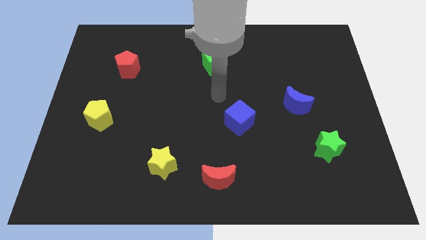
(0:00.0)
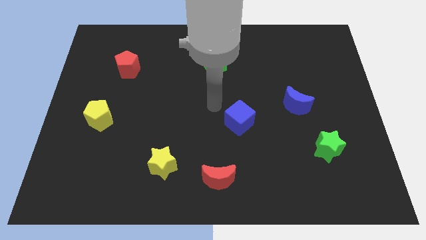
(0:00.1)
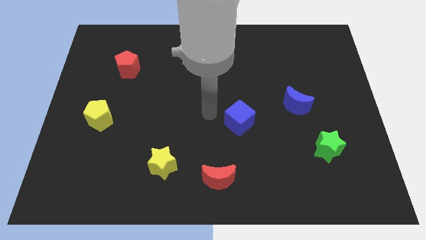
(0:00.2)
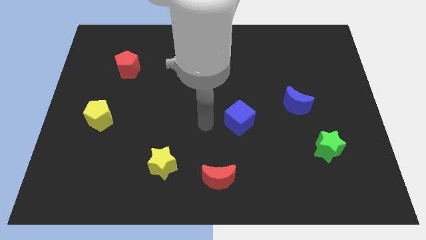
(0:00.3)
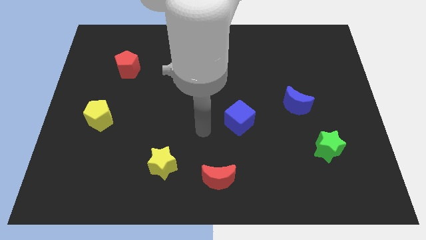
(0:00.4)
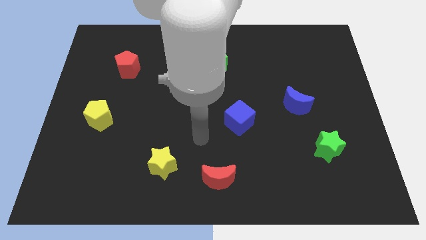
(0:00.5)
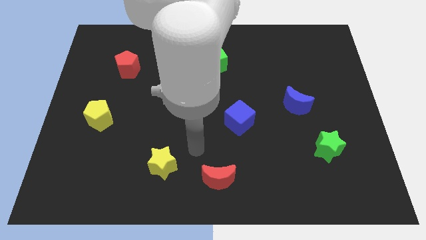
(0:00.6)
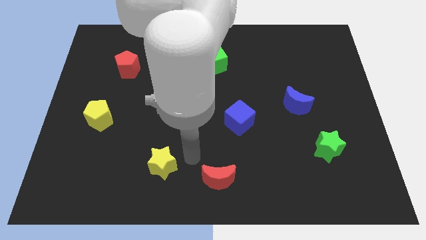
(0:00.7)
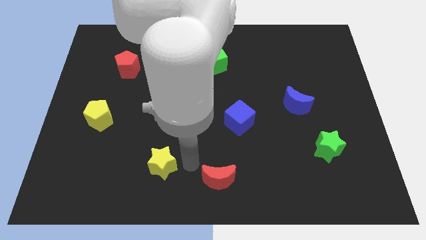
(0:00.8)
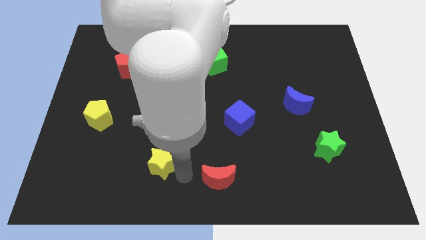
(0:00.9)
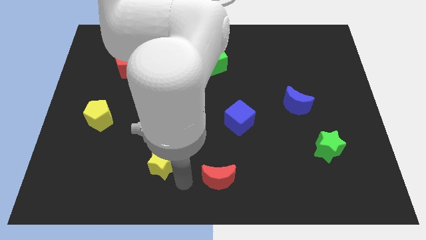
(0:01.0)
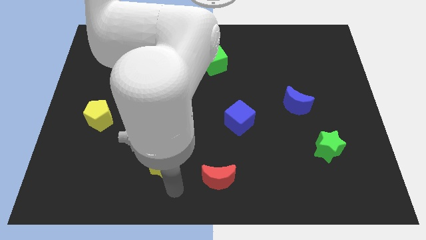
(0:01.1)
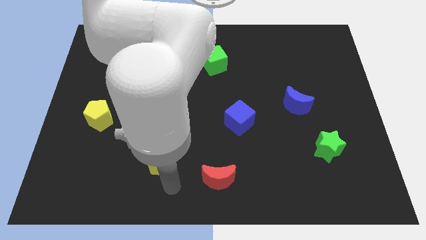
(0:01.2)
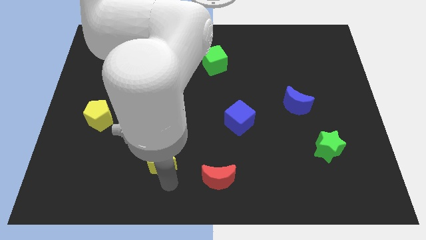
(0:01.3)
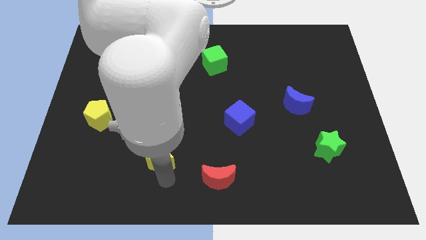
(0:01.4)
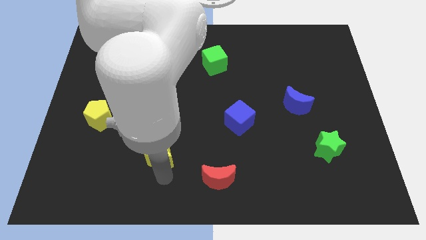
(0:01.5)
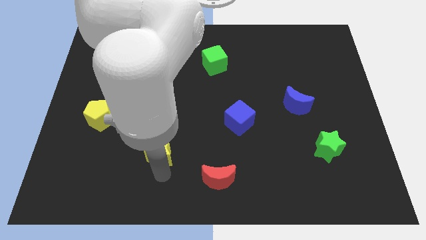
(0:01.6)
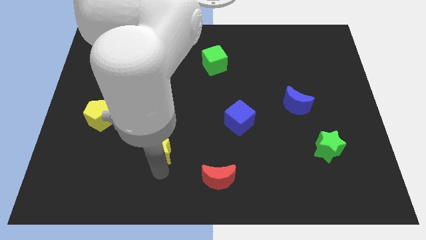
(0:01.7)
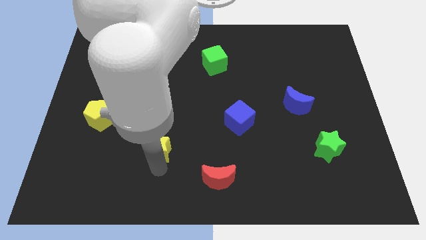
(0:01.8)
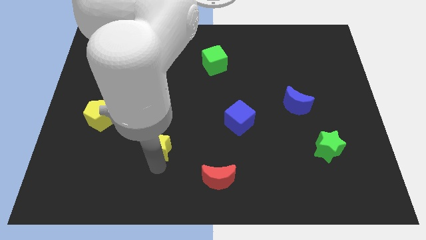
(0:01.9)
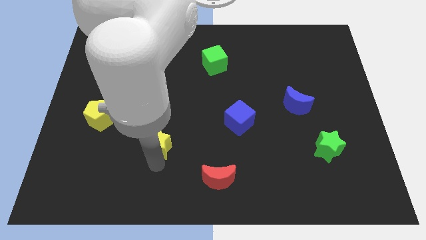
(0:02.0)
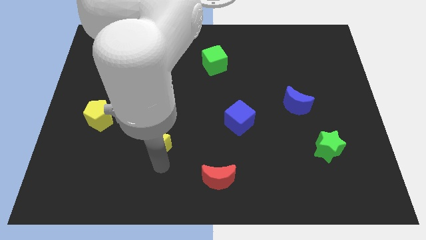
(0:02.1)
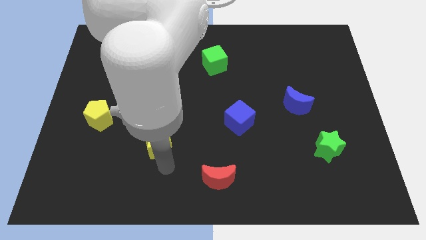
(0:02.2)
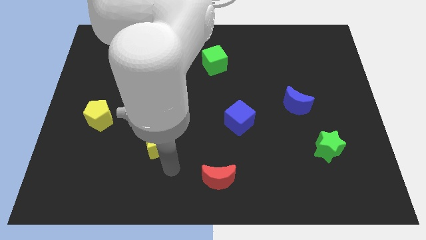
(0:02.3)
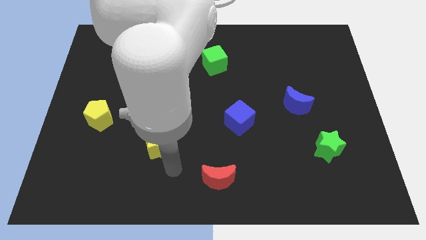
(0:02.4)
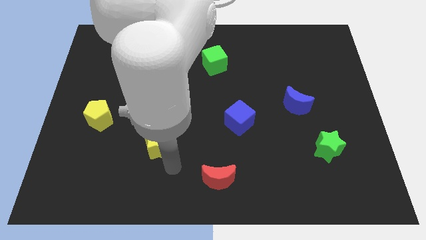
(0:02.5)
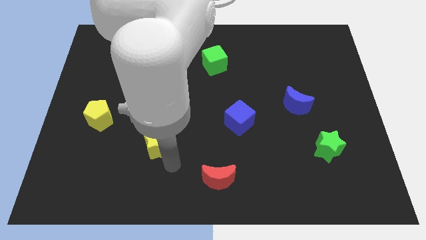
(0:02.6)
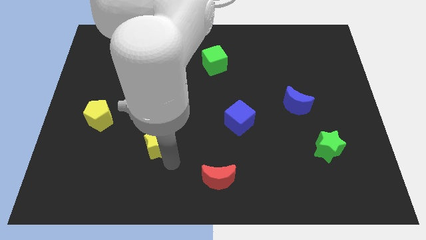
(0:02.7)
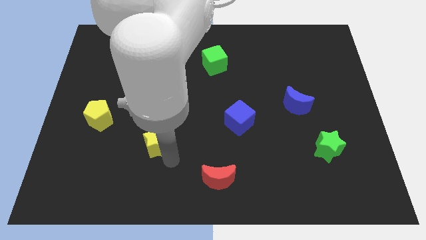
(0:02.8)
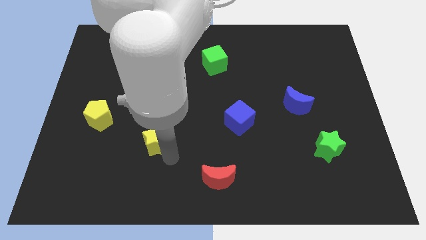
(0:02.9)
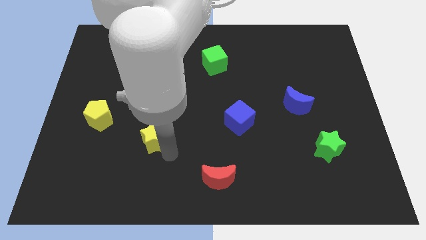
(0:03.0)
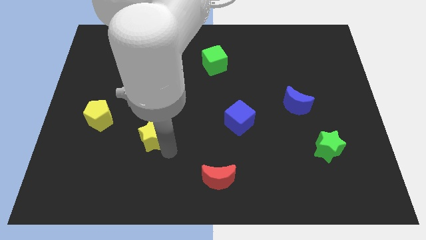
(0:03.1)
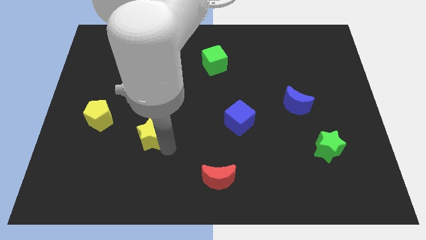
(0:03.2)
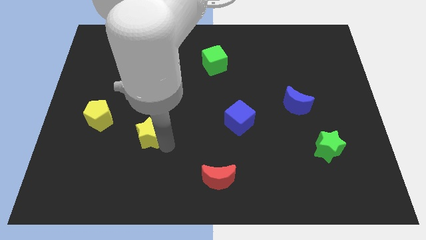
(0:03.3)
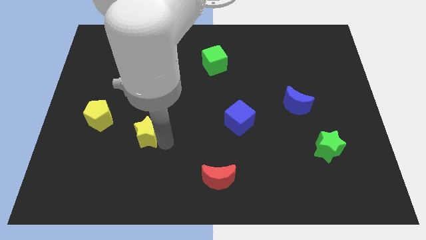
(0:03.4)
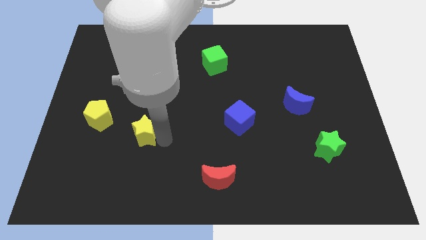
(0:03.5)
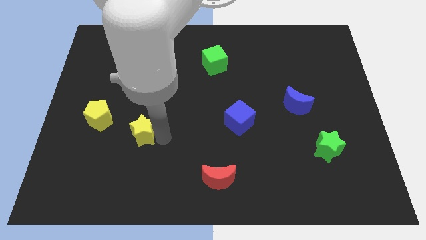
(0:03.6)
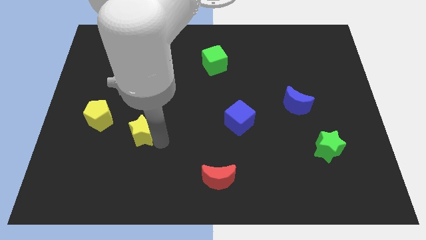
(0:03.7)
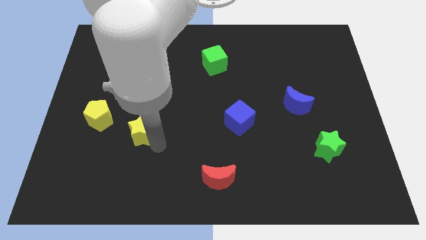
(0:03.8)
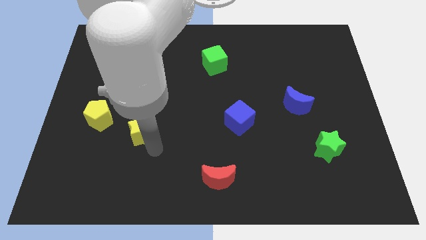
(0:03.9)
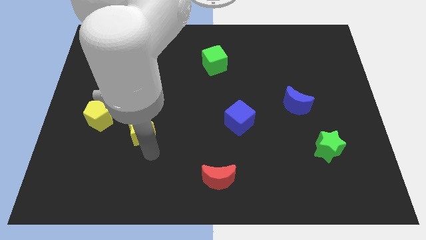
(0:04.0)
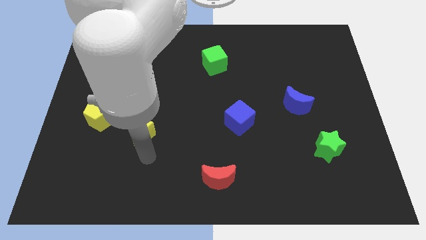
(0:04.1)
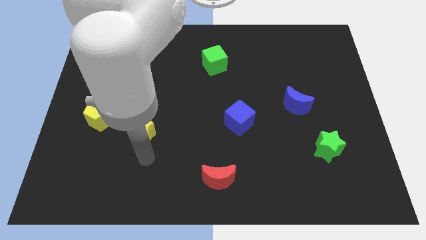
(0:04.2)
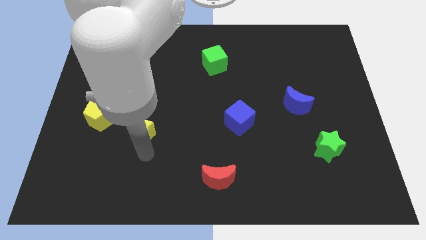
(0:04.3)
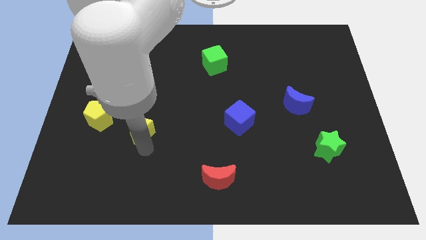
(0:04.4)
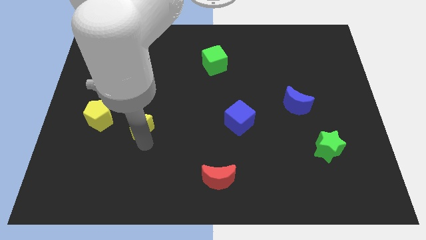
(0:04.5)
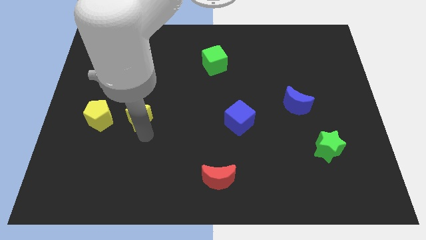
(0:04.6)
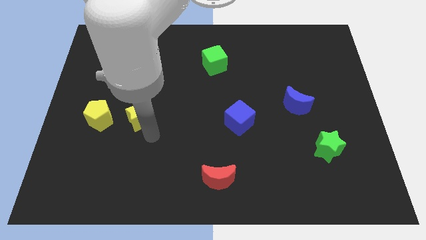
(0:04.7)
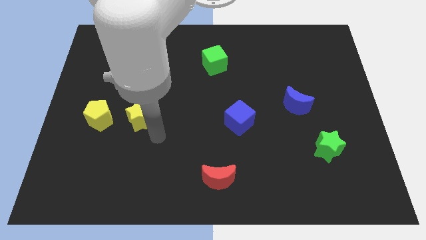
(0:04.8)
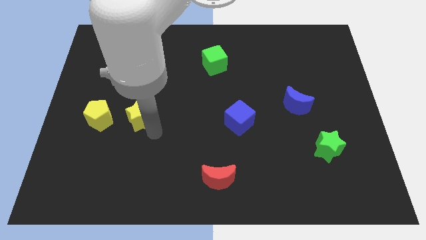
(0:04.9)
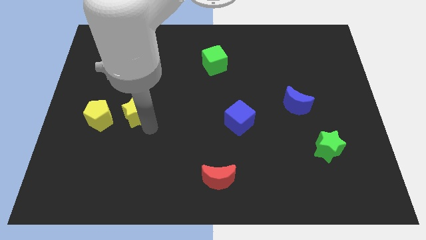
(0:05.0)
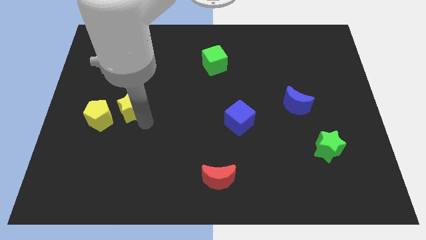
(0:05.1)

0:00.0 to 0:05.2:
push the yellow star to the top right side of the yellow pentagon

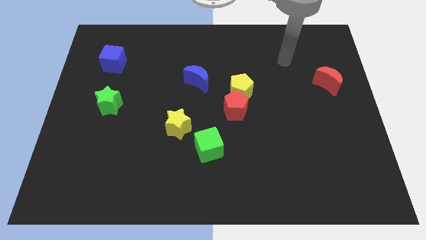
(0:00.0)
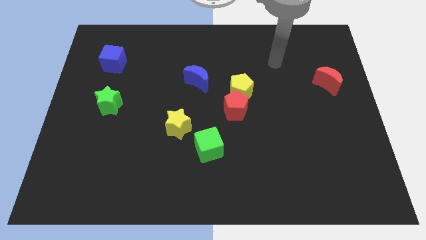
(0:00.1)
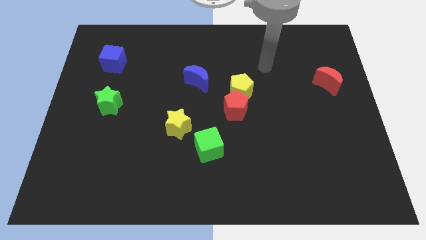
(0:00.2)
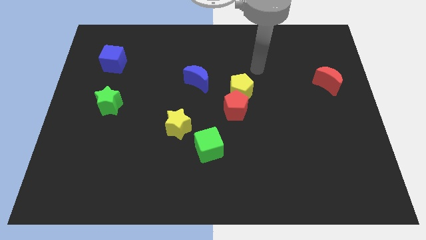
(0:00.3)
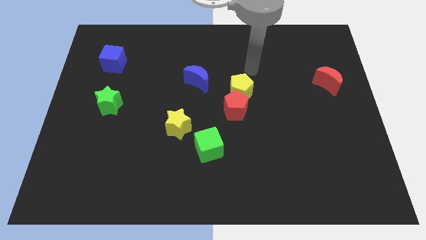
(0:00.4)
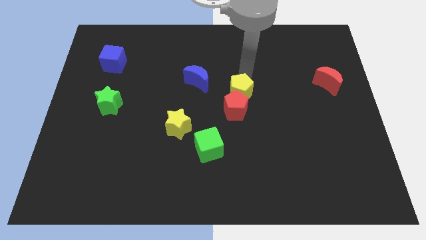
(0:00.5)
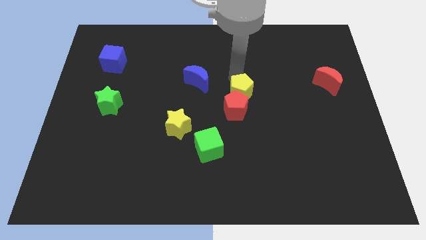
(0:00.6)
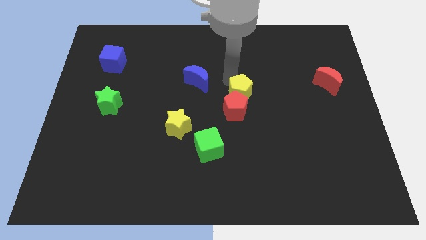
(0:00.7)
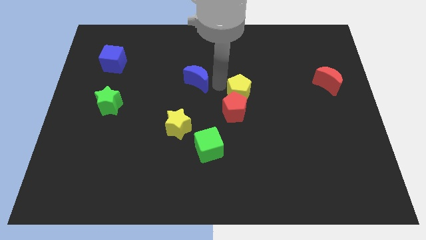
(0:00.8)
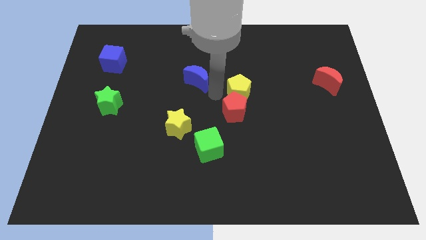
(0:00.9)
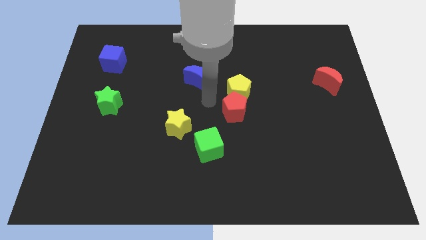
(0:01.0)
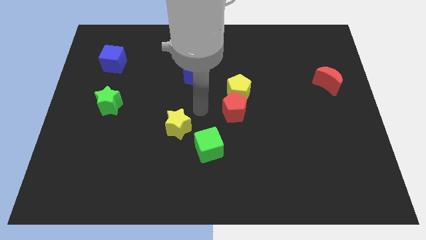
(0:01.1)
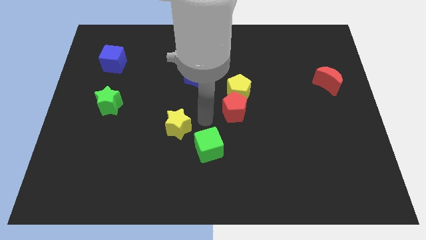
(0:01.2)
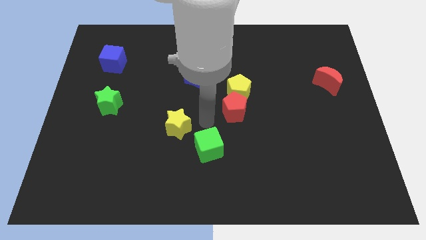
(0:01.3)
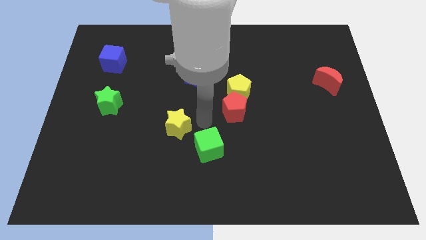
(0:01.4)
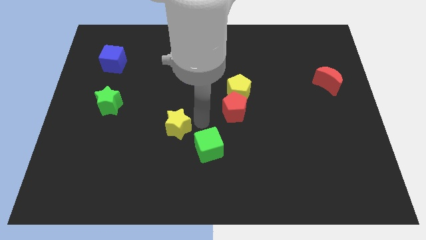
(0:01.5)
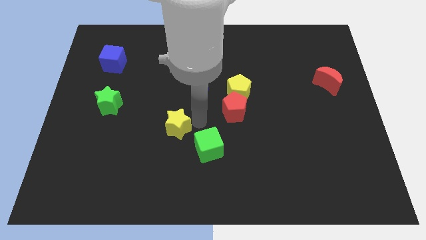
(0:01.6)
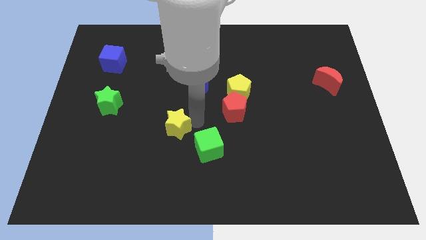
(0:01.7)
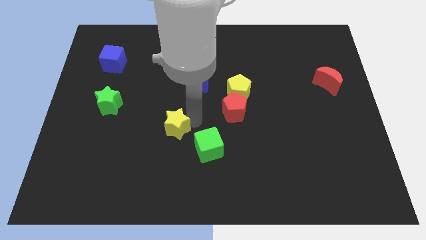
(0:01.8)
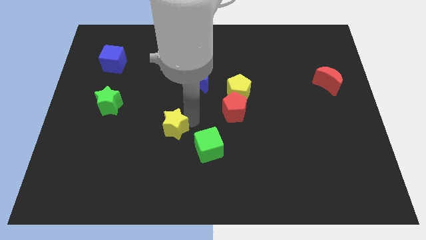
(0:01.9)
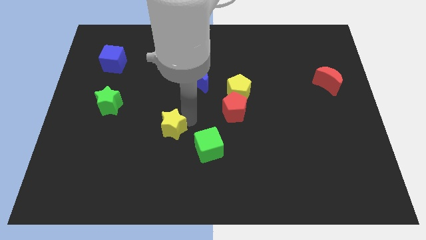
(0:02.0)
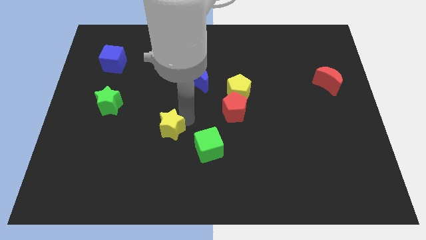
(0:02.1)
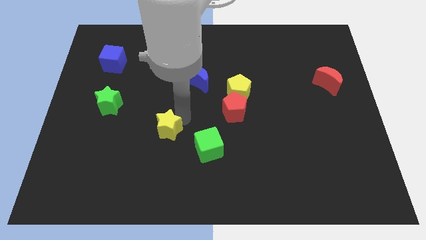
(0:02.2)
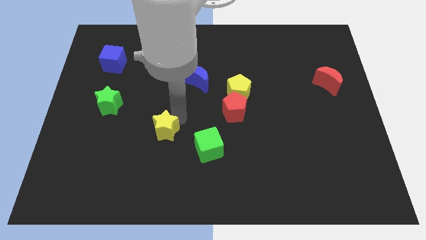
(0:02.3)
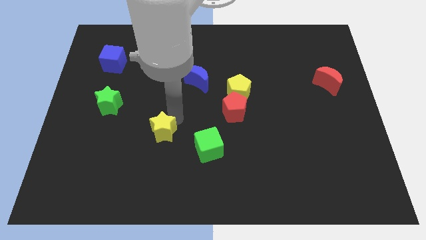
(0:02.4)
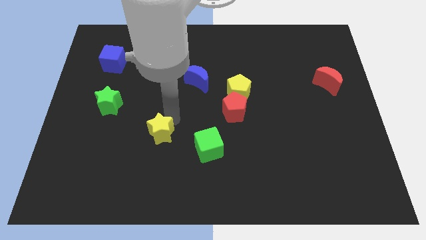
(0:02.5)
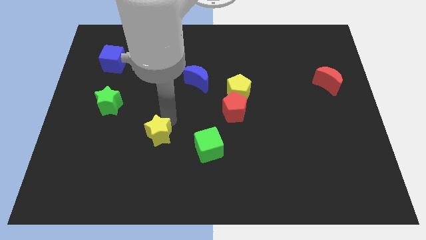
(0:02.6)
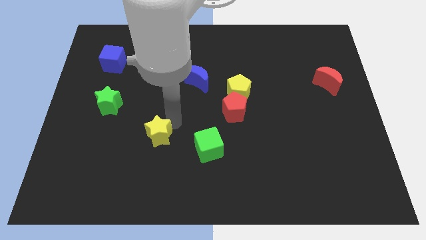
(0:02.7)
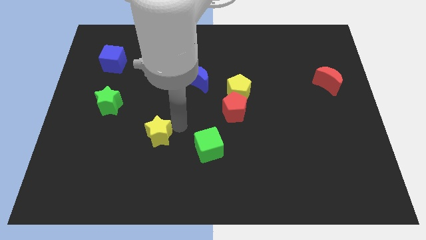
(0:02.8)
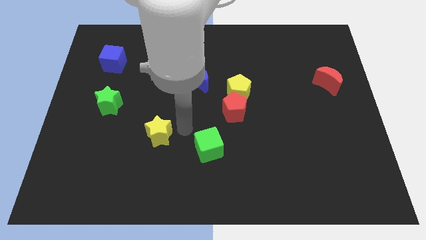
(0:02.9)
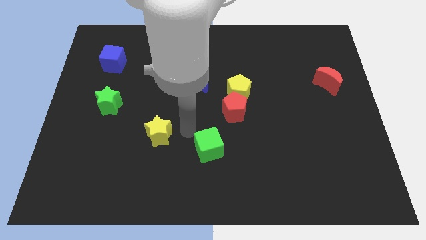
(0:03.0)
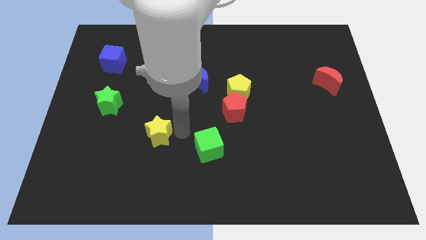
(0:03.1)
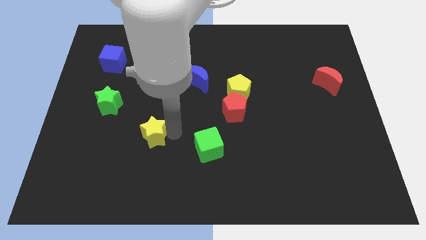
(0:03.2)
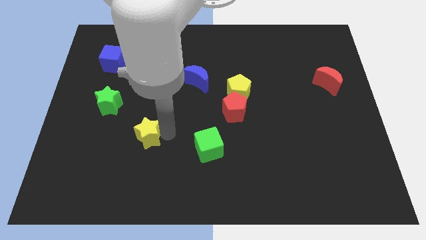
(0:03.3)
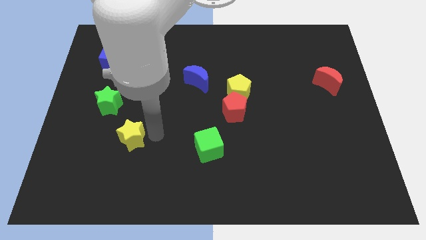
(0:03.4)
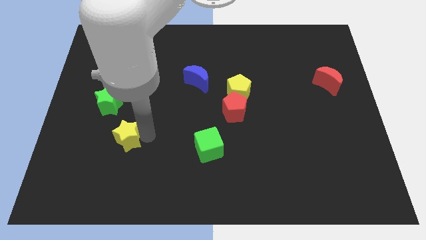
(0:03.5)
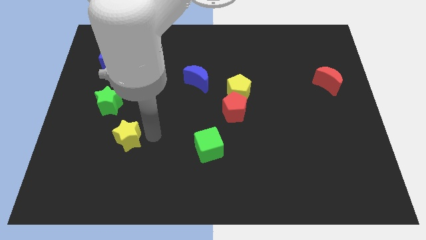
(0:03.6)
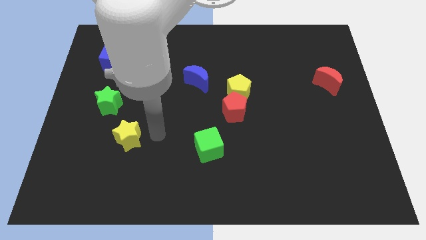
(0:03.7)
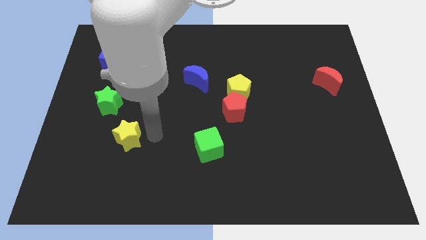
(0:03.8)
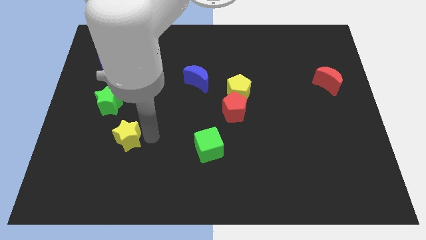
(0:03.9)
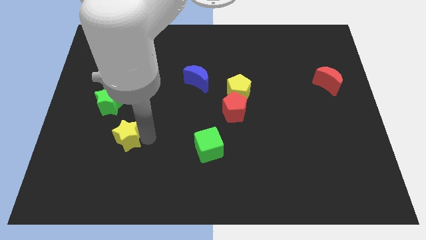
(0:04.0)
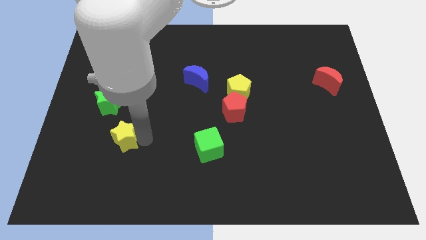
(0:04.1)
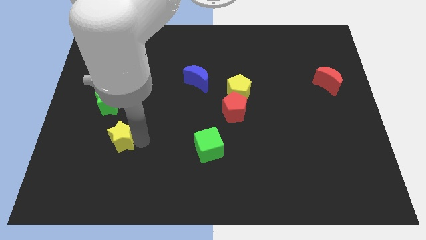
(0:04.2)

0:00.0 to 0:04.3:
move the yellow star to the bottom of the green star
